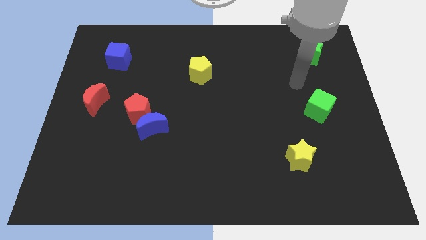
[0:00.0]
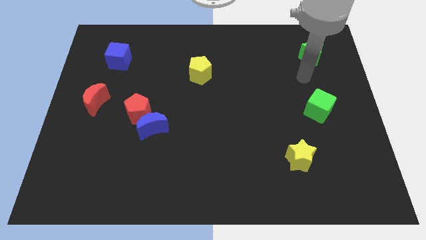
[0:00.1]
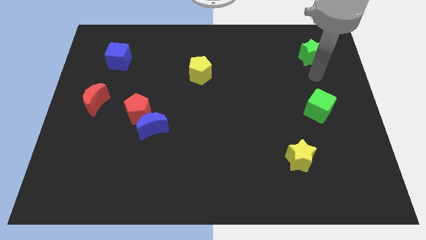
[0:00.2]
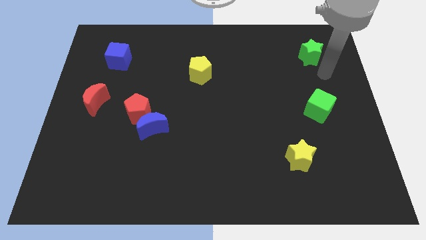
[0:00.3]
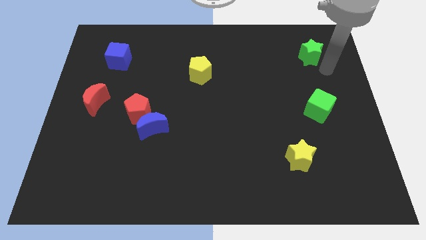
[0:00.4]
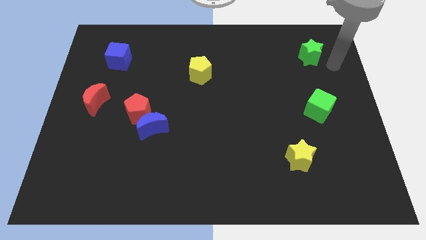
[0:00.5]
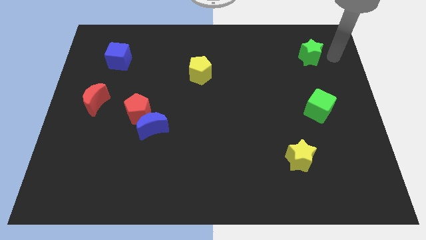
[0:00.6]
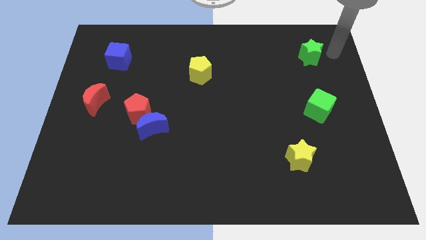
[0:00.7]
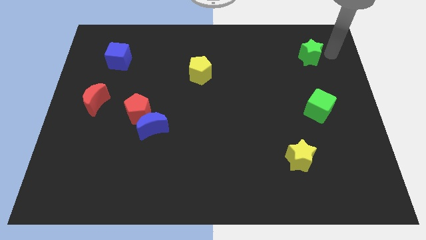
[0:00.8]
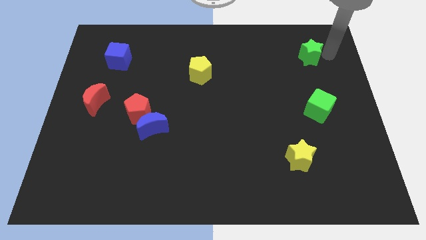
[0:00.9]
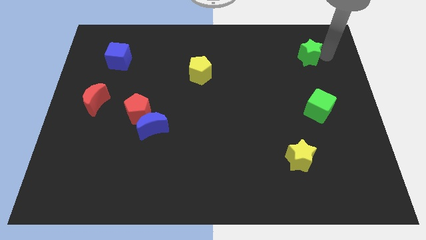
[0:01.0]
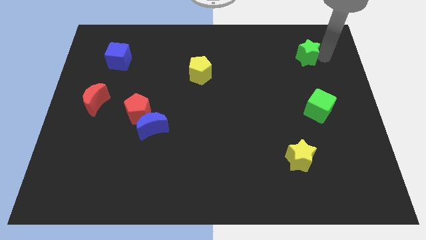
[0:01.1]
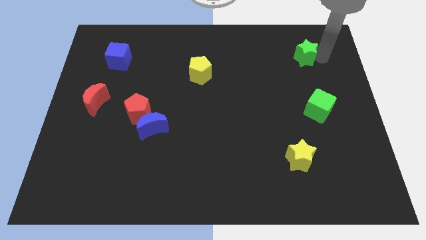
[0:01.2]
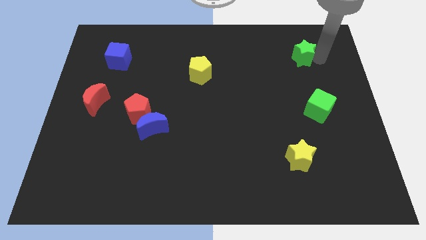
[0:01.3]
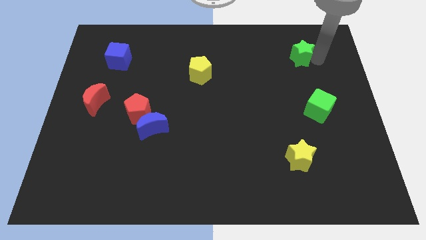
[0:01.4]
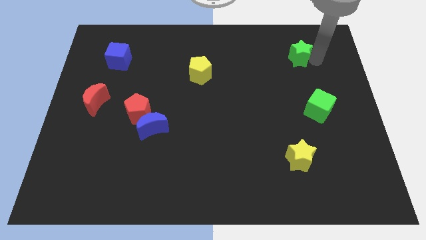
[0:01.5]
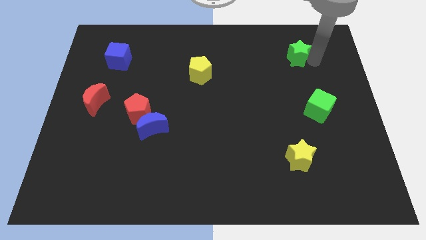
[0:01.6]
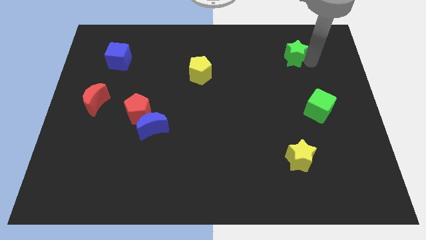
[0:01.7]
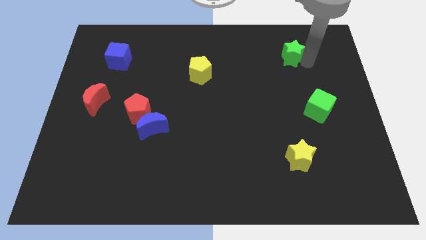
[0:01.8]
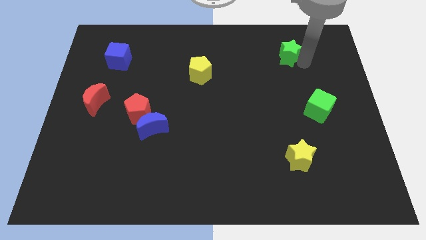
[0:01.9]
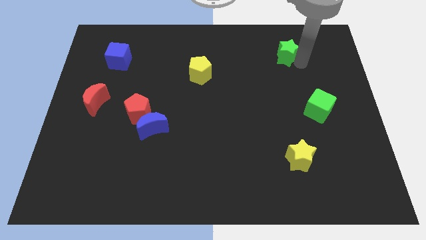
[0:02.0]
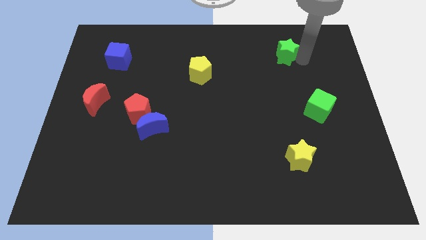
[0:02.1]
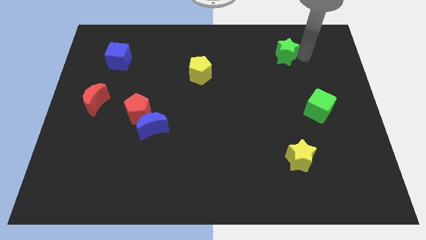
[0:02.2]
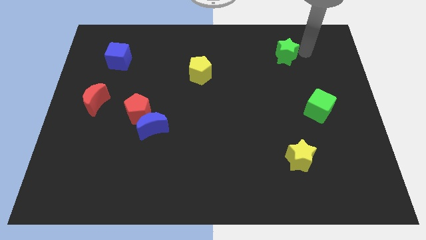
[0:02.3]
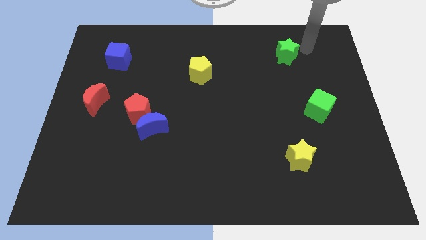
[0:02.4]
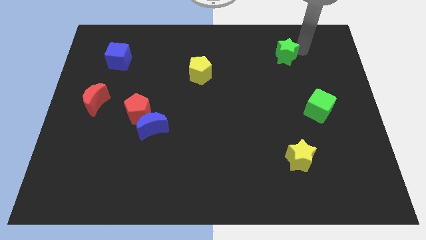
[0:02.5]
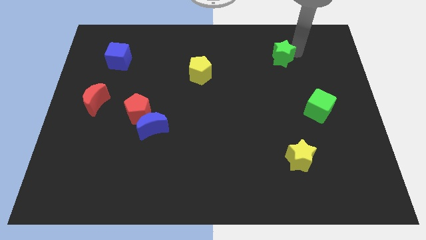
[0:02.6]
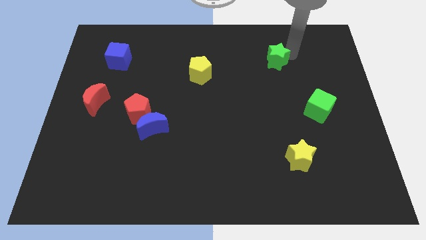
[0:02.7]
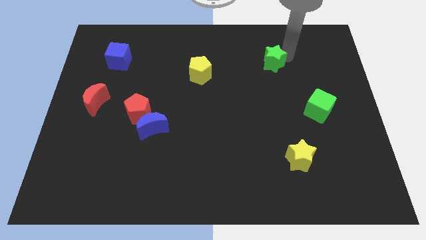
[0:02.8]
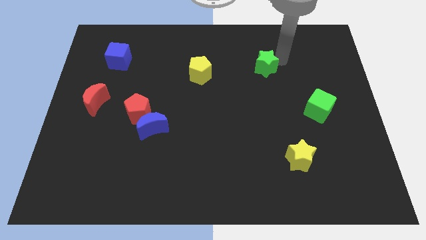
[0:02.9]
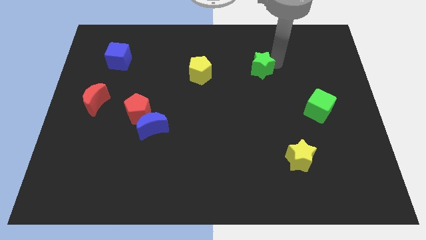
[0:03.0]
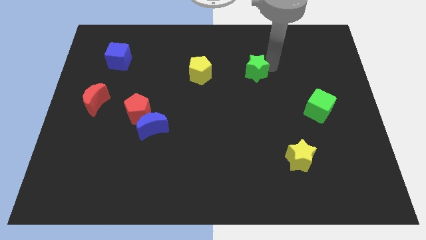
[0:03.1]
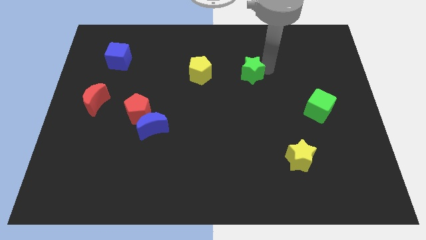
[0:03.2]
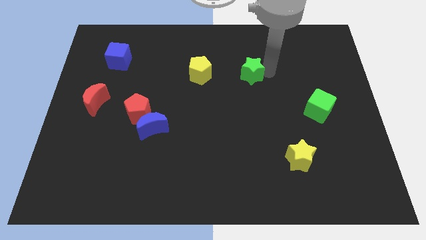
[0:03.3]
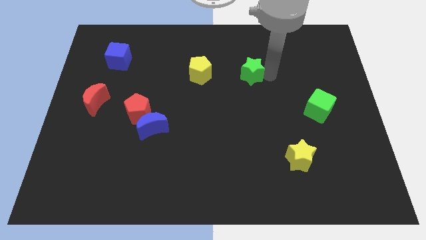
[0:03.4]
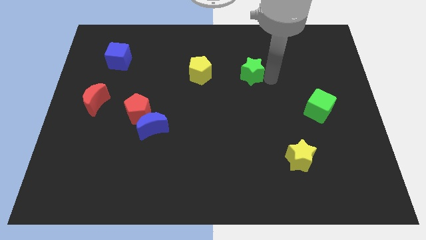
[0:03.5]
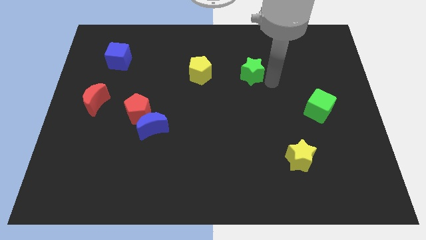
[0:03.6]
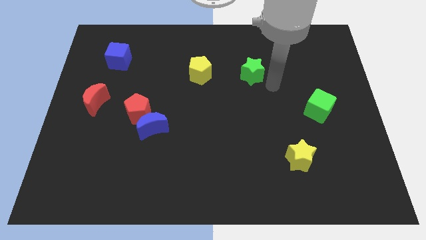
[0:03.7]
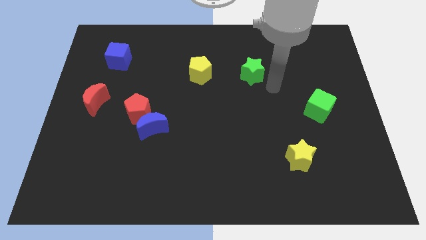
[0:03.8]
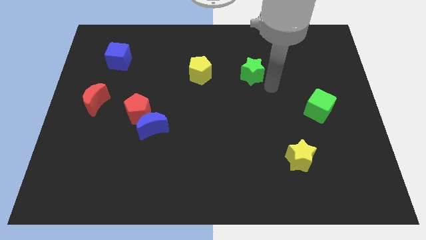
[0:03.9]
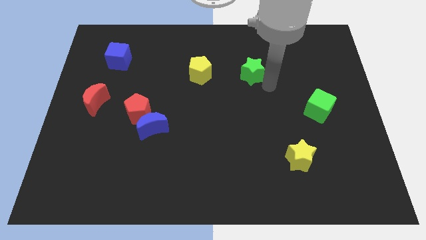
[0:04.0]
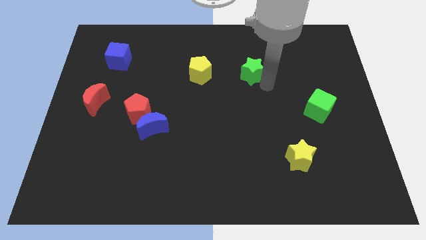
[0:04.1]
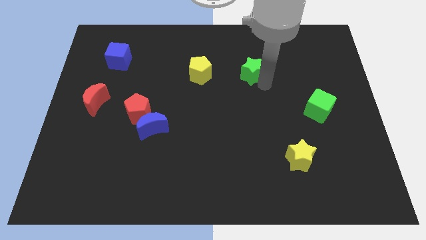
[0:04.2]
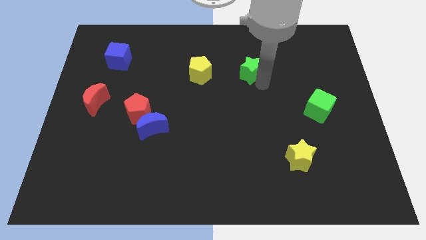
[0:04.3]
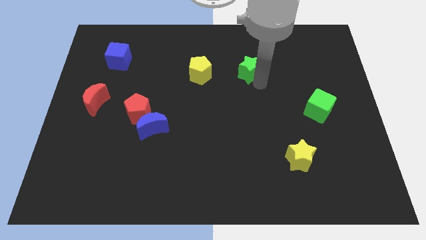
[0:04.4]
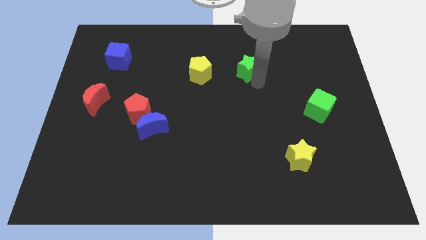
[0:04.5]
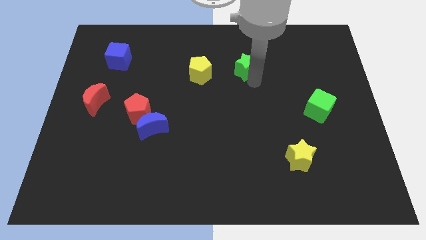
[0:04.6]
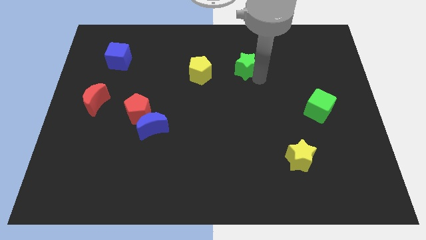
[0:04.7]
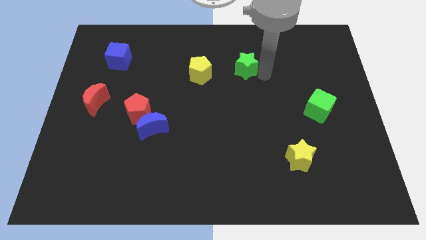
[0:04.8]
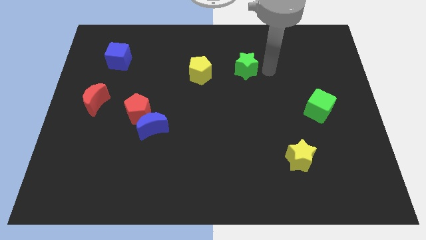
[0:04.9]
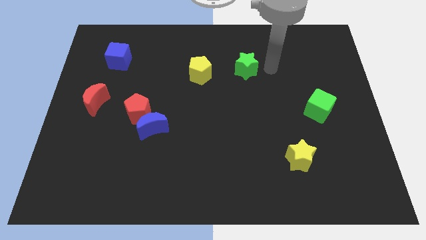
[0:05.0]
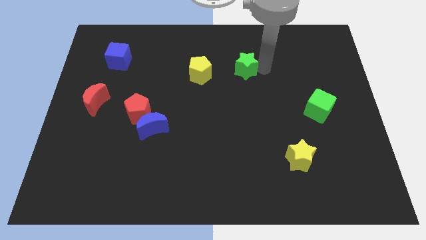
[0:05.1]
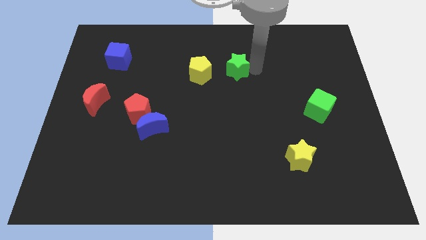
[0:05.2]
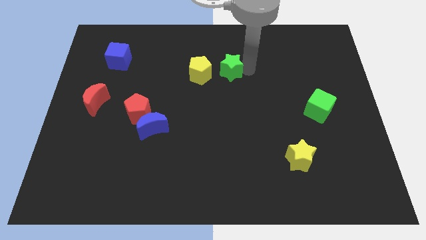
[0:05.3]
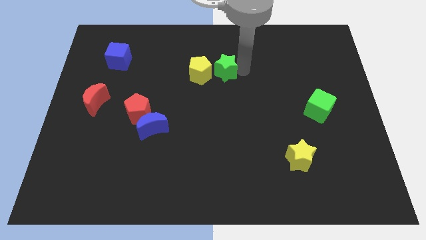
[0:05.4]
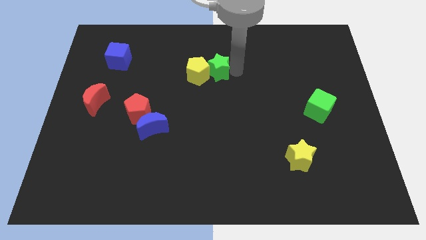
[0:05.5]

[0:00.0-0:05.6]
slide the green star close to the yellow pentagon

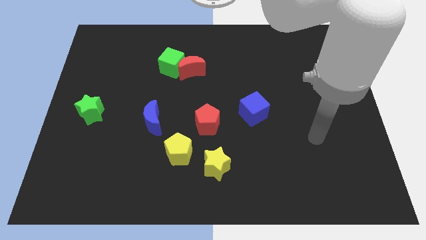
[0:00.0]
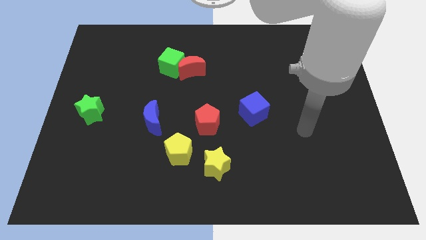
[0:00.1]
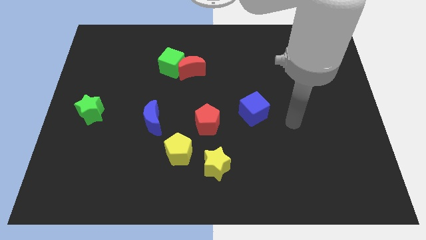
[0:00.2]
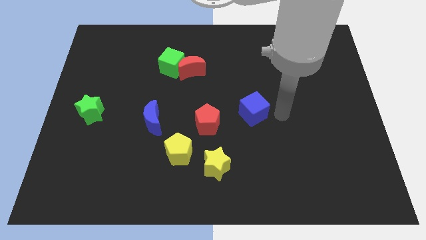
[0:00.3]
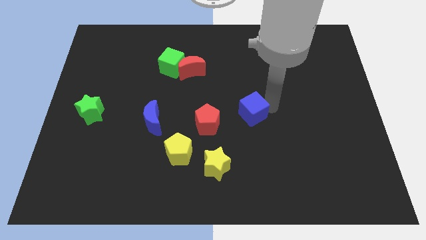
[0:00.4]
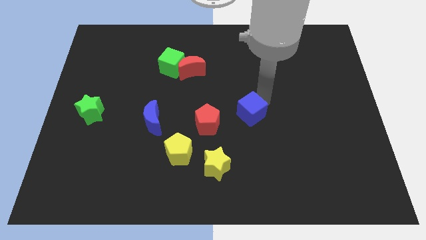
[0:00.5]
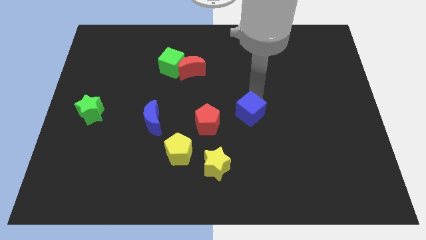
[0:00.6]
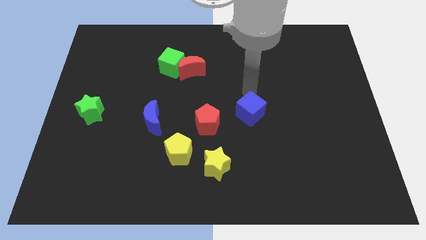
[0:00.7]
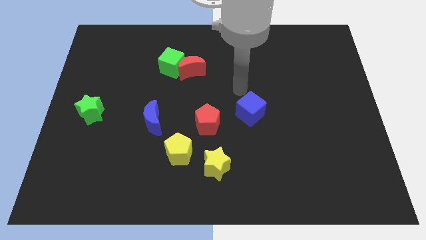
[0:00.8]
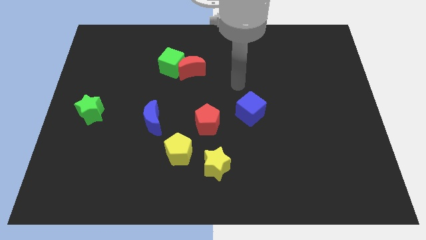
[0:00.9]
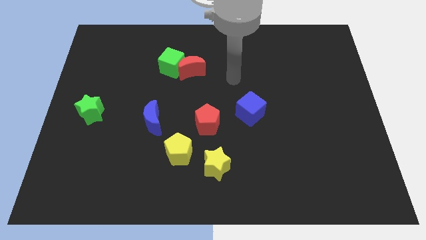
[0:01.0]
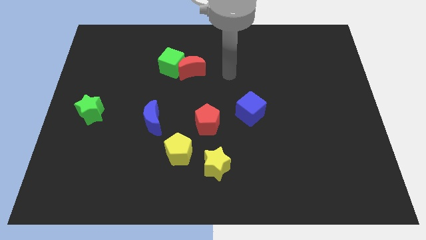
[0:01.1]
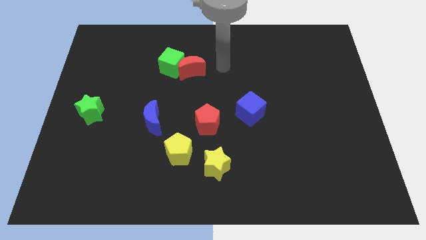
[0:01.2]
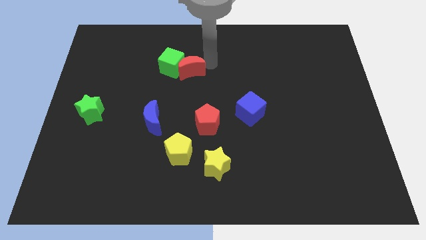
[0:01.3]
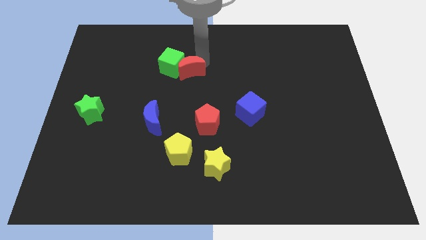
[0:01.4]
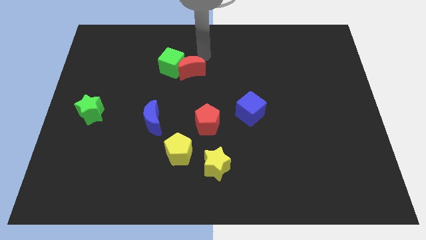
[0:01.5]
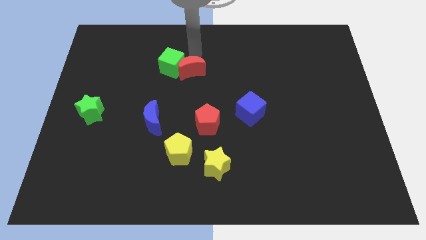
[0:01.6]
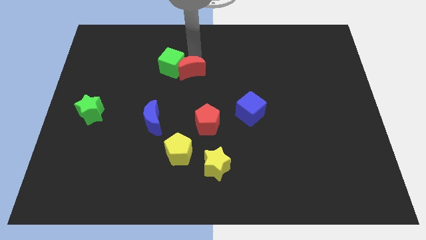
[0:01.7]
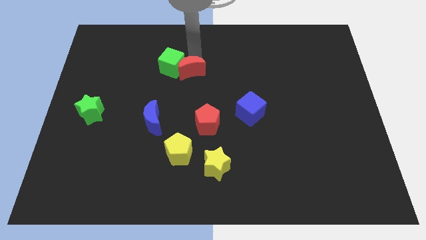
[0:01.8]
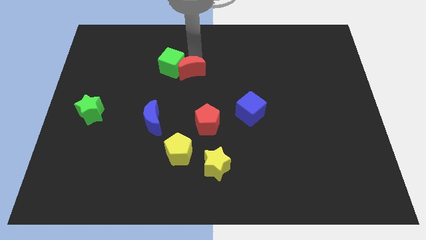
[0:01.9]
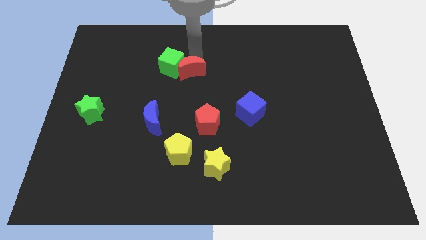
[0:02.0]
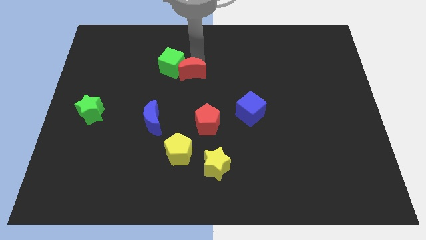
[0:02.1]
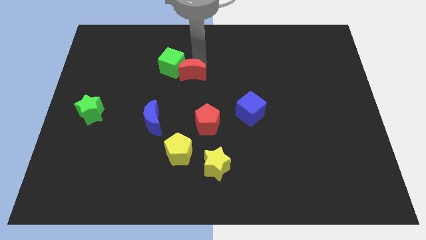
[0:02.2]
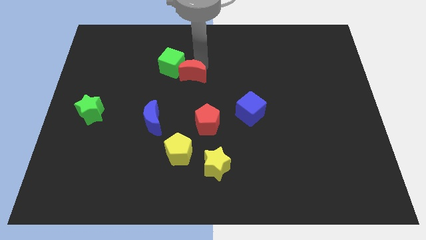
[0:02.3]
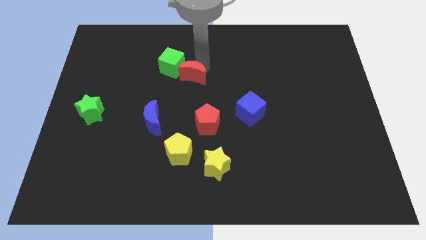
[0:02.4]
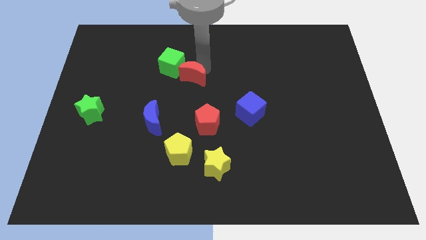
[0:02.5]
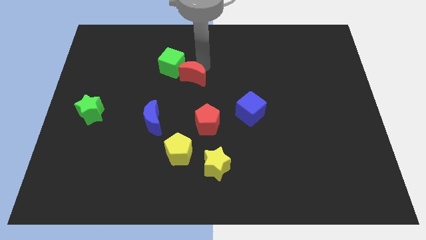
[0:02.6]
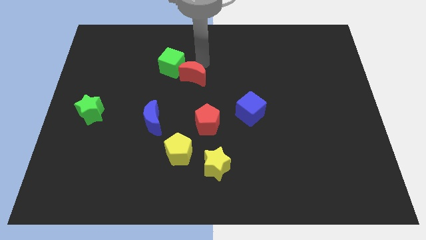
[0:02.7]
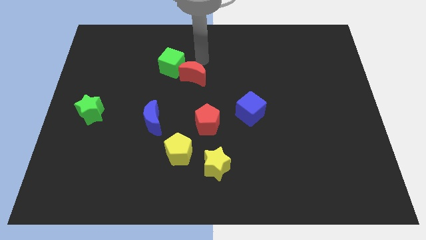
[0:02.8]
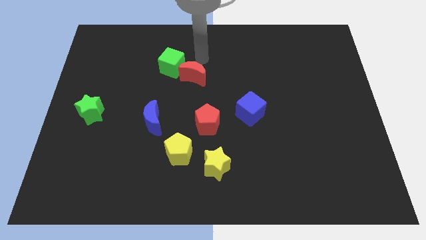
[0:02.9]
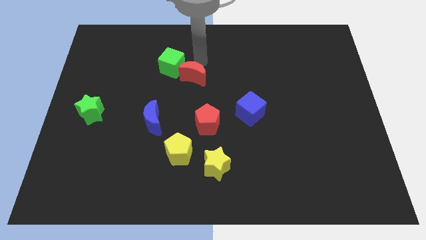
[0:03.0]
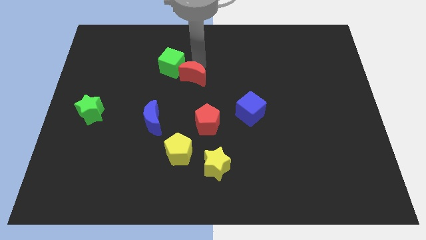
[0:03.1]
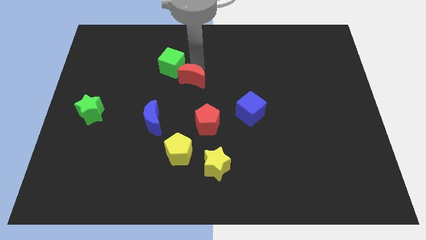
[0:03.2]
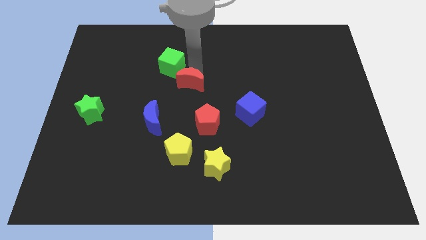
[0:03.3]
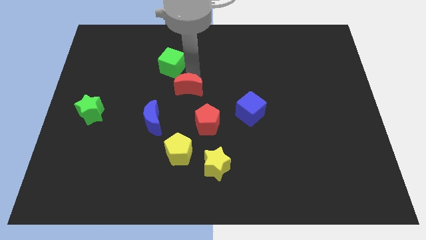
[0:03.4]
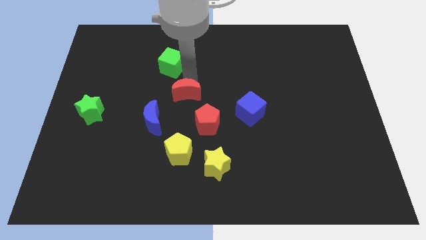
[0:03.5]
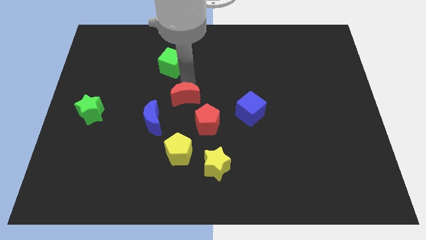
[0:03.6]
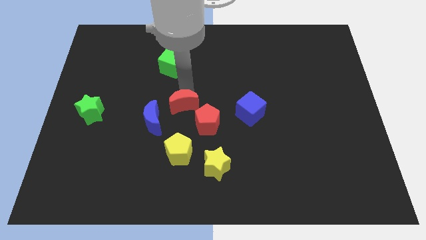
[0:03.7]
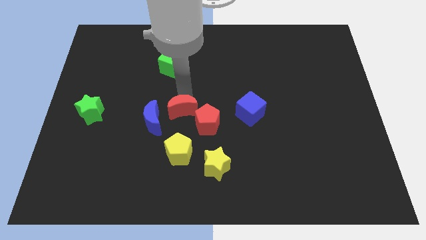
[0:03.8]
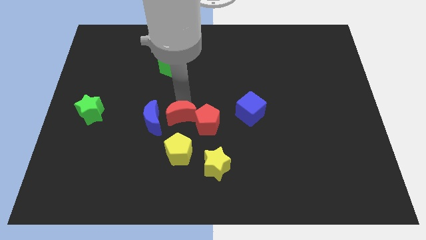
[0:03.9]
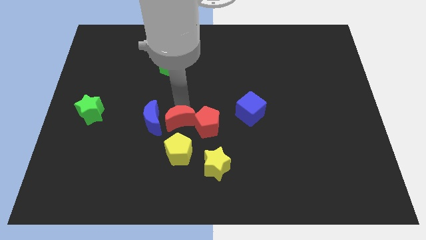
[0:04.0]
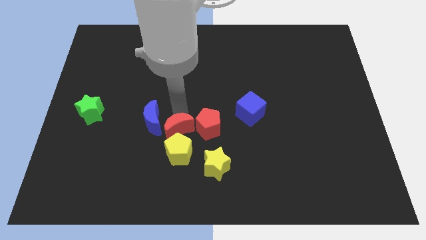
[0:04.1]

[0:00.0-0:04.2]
push the red moon next to the yellow pentagon
